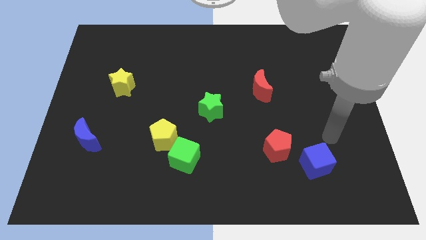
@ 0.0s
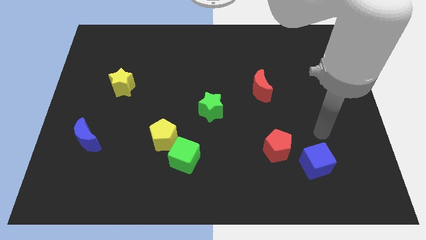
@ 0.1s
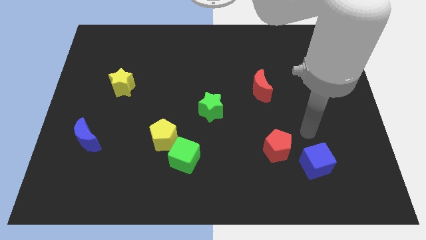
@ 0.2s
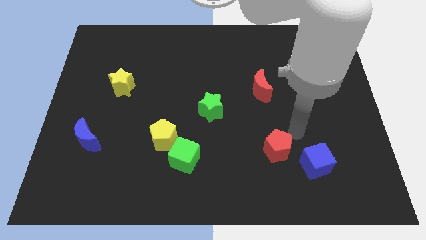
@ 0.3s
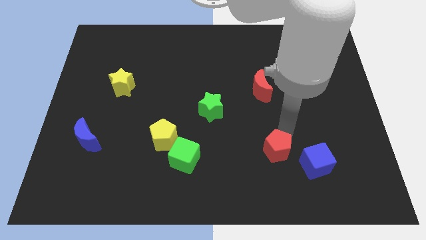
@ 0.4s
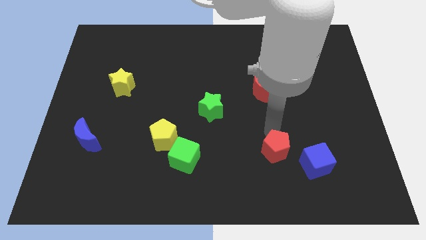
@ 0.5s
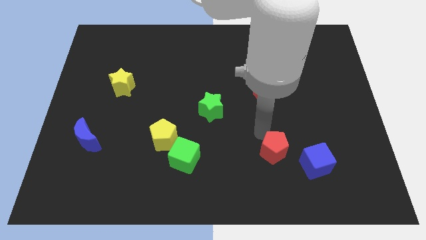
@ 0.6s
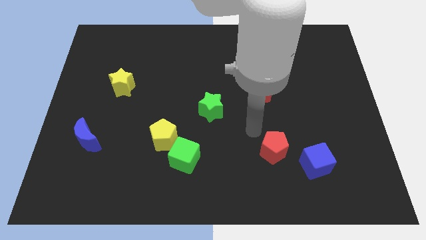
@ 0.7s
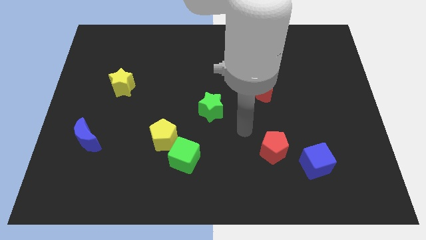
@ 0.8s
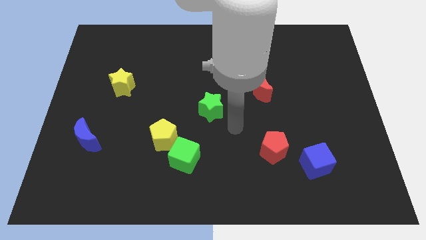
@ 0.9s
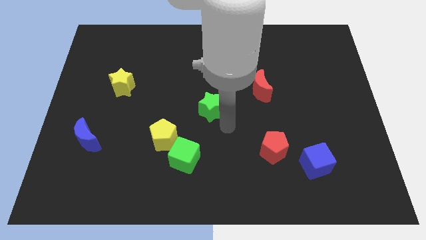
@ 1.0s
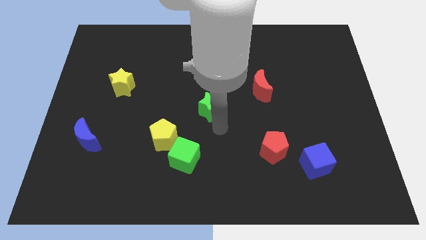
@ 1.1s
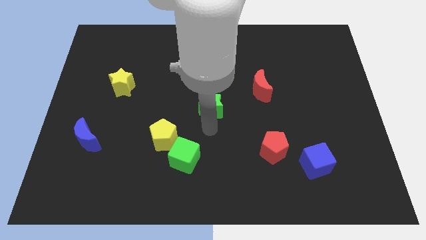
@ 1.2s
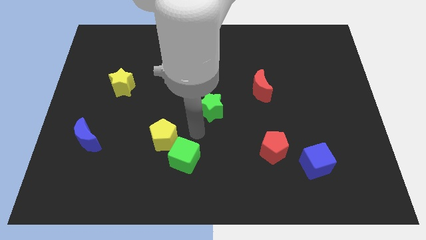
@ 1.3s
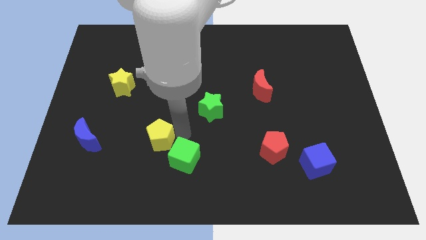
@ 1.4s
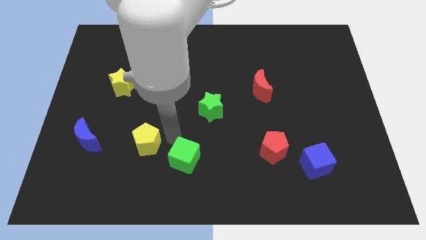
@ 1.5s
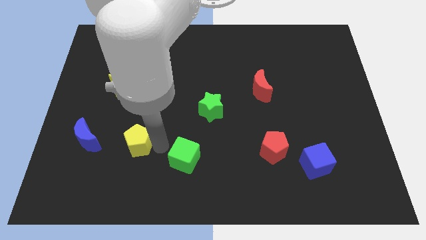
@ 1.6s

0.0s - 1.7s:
move the green cube away from the yellow pentagon

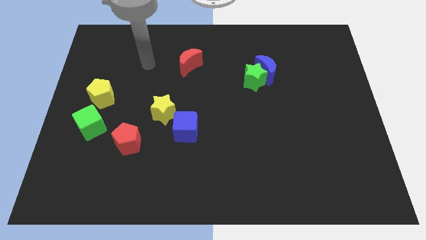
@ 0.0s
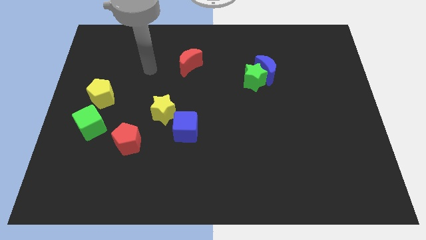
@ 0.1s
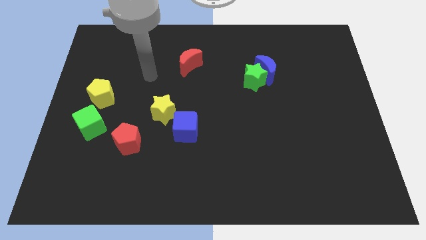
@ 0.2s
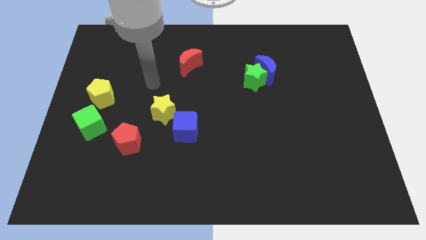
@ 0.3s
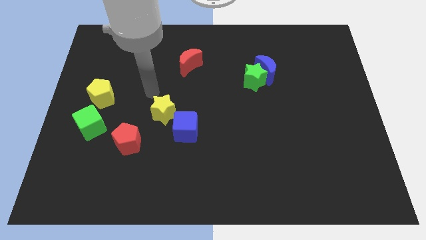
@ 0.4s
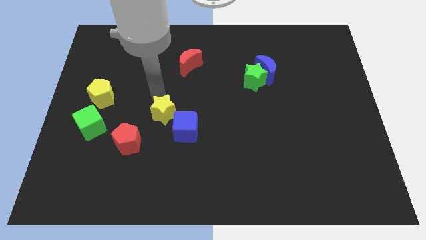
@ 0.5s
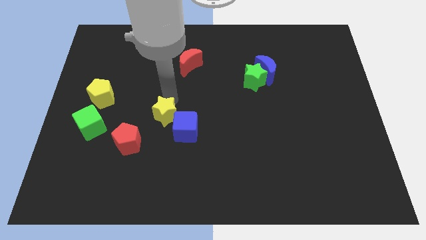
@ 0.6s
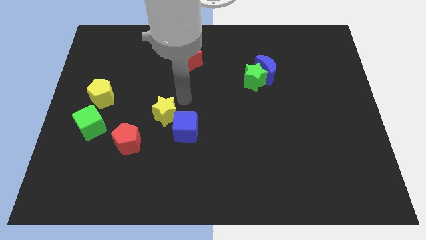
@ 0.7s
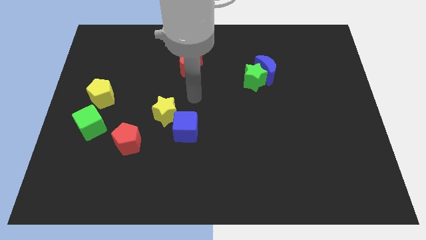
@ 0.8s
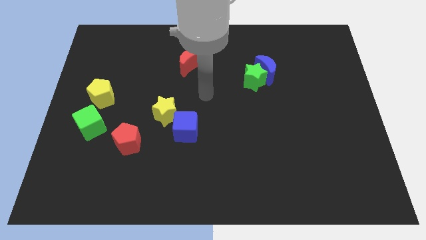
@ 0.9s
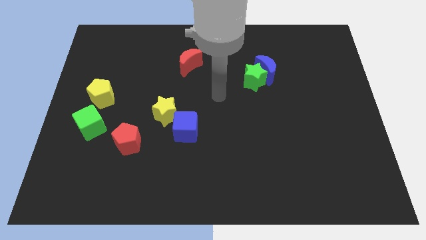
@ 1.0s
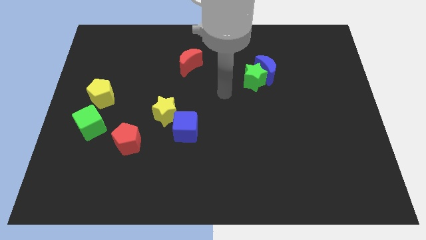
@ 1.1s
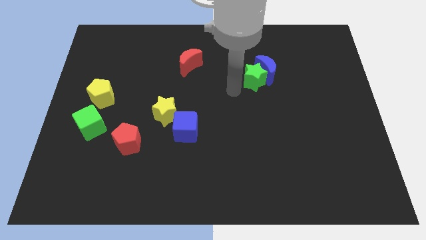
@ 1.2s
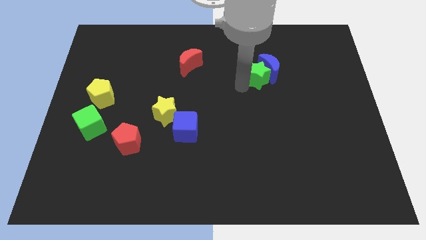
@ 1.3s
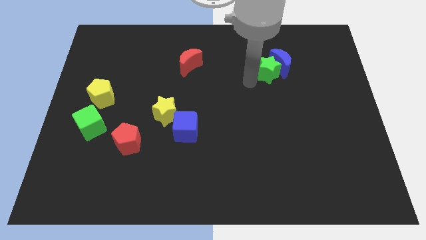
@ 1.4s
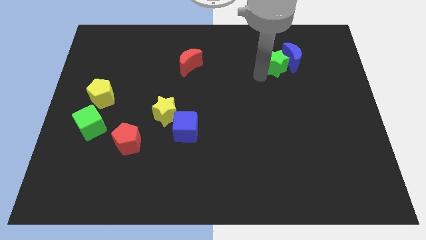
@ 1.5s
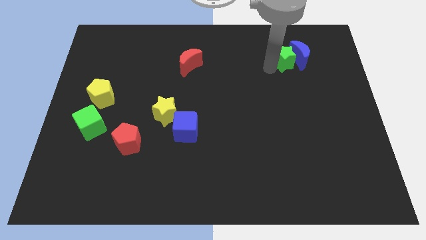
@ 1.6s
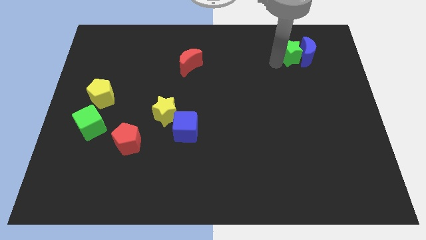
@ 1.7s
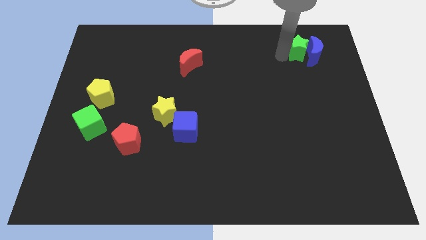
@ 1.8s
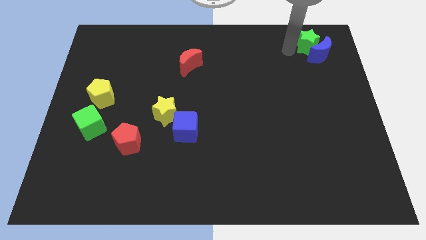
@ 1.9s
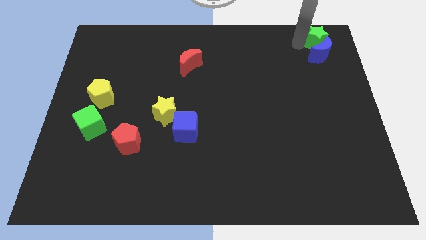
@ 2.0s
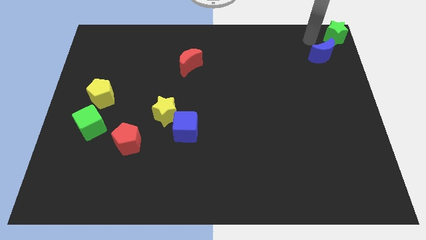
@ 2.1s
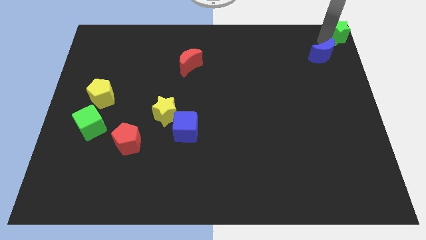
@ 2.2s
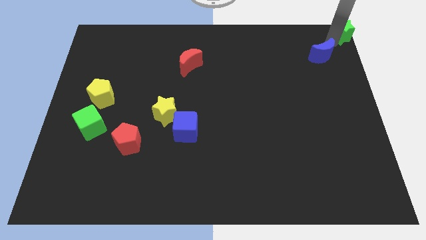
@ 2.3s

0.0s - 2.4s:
pull the blue moon apart from the green star

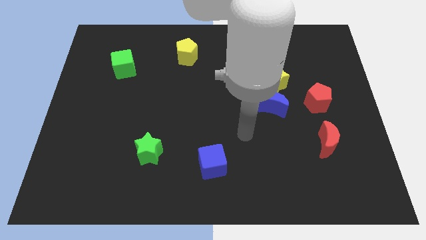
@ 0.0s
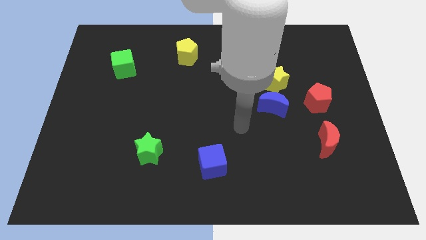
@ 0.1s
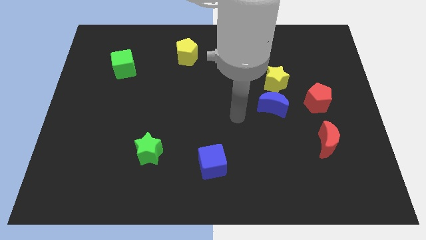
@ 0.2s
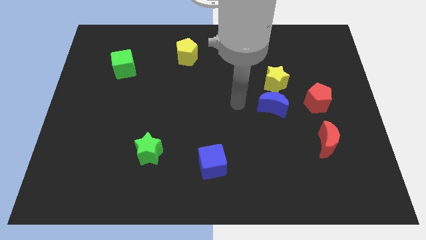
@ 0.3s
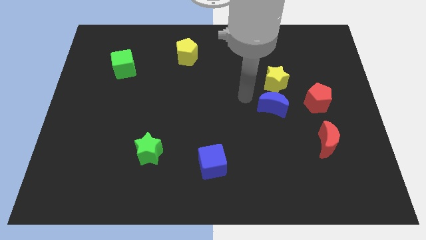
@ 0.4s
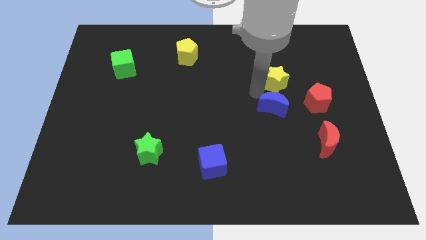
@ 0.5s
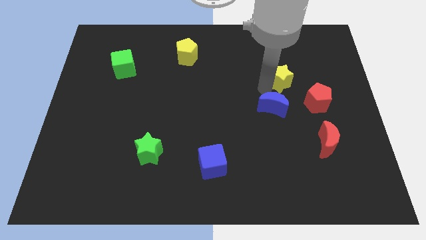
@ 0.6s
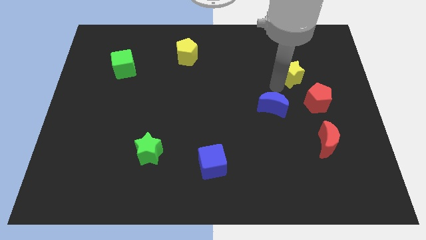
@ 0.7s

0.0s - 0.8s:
move the blue moon away from the yellow star

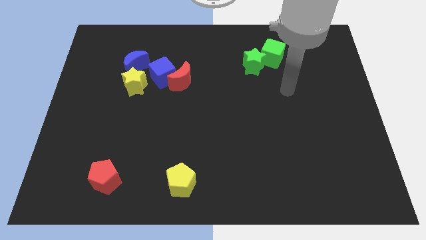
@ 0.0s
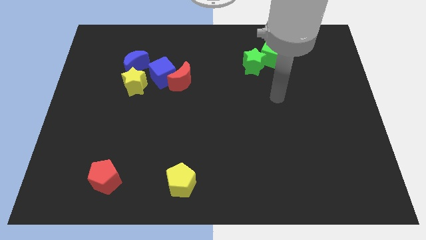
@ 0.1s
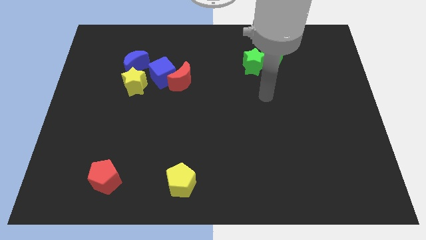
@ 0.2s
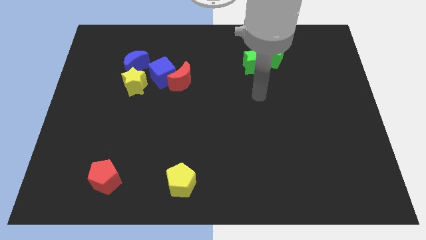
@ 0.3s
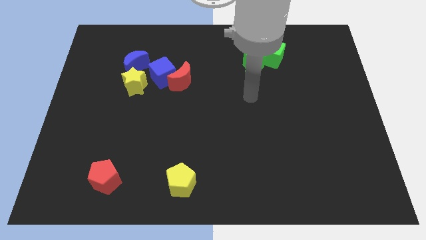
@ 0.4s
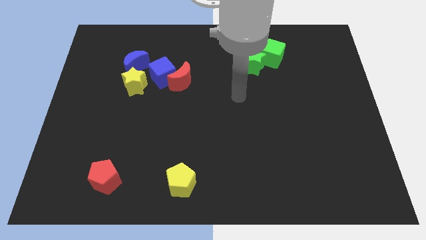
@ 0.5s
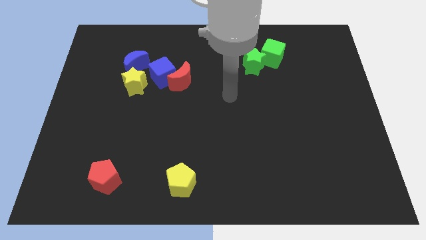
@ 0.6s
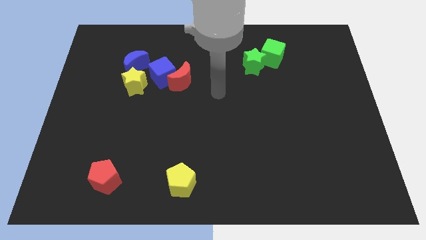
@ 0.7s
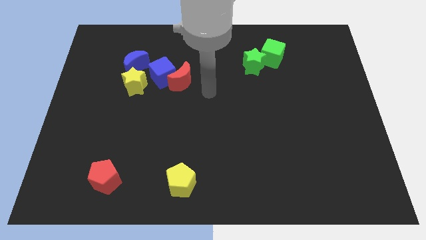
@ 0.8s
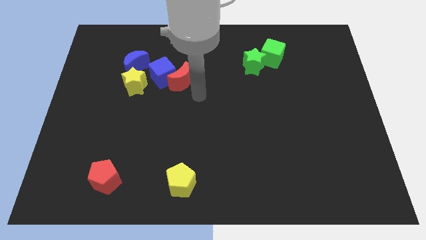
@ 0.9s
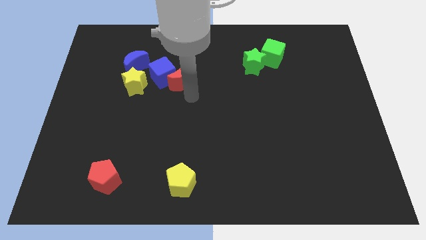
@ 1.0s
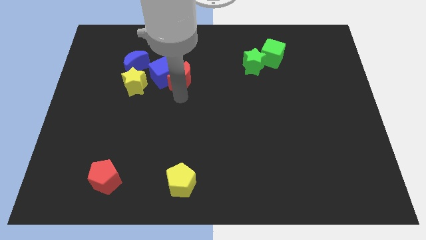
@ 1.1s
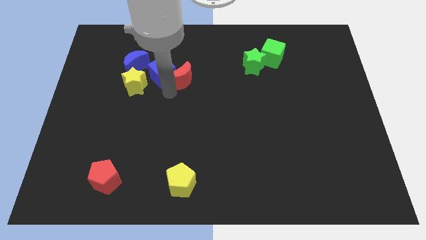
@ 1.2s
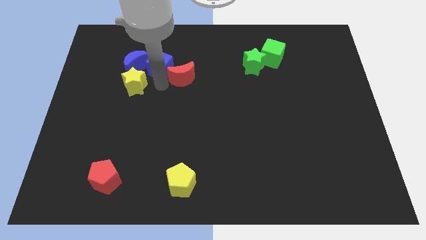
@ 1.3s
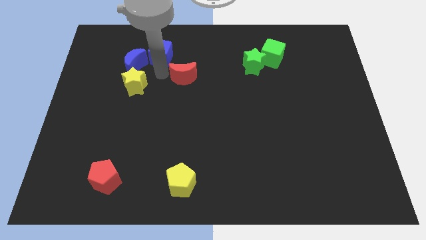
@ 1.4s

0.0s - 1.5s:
pull the red moon apart from the blue cube

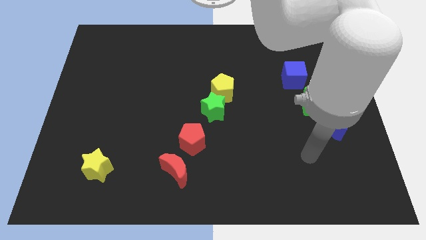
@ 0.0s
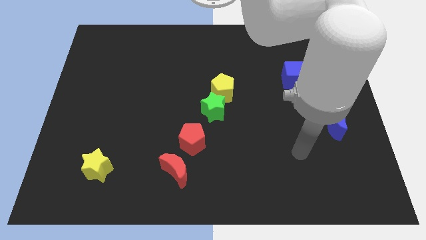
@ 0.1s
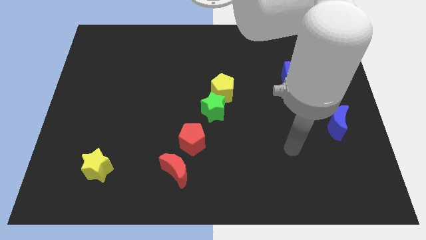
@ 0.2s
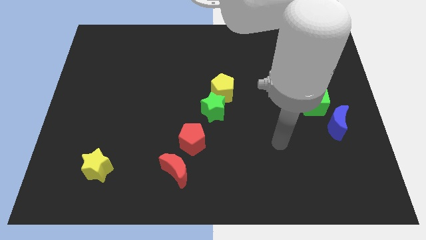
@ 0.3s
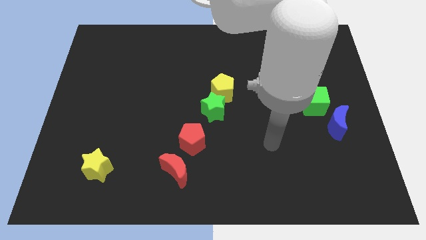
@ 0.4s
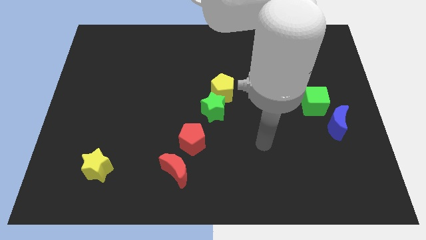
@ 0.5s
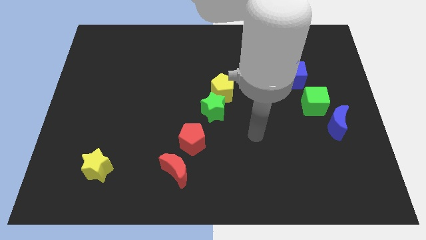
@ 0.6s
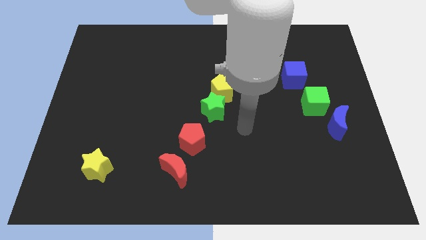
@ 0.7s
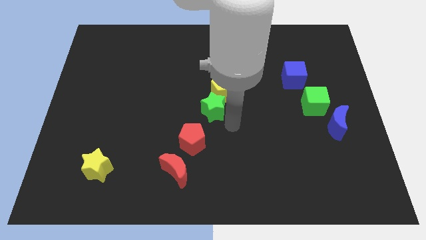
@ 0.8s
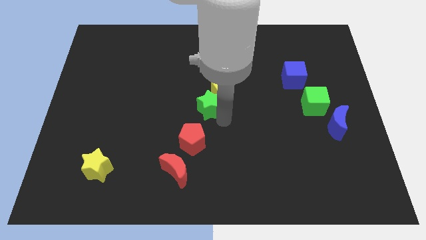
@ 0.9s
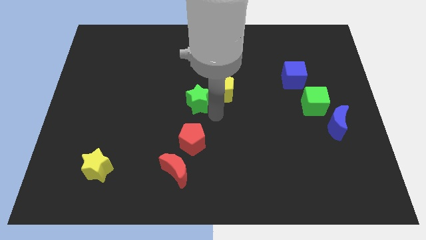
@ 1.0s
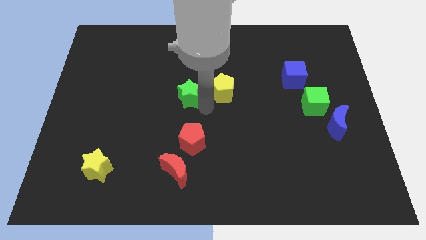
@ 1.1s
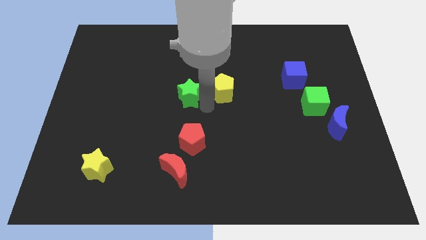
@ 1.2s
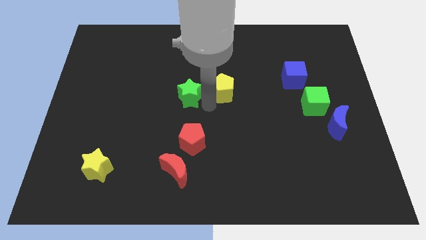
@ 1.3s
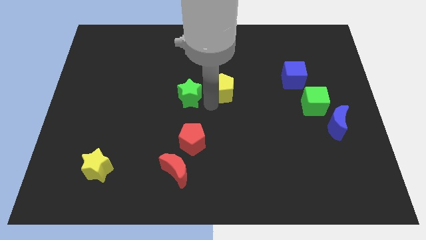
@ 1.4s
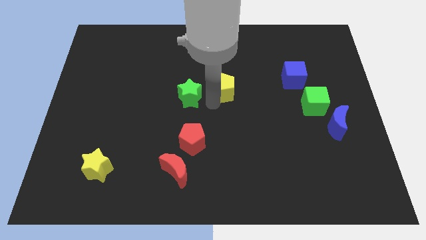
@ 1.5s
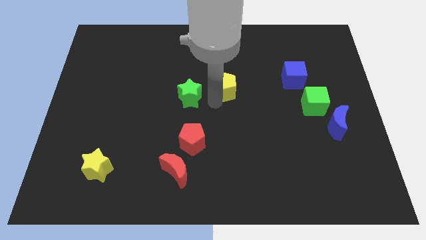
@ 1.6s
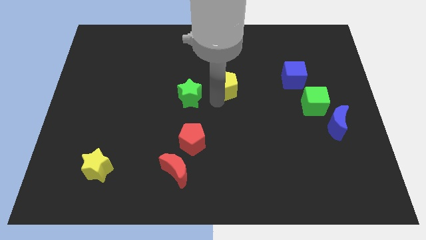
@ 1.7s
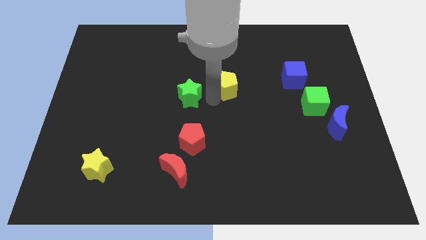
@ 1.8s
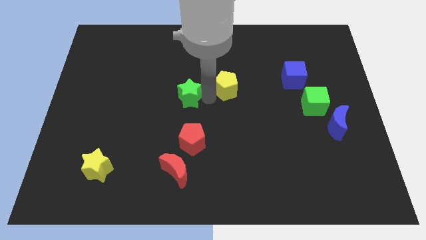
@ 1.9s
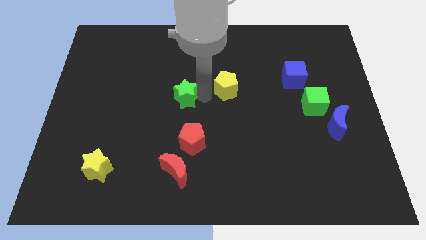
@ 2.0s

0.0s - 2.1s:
separate the yellow pentagon from the green star

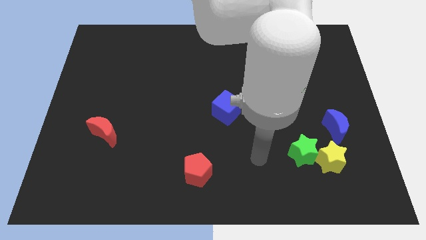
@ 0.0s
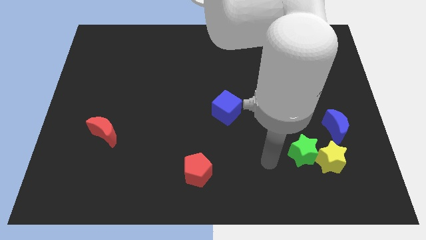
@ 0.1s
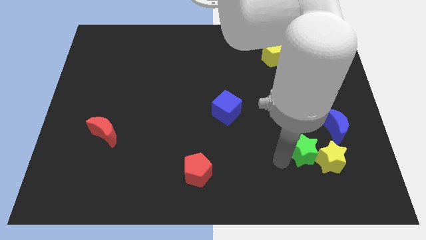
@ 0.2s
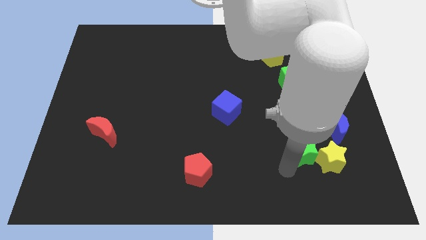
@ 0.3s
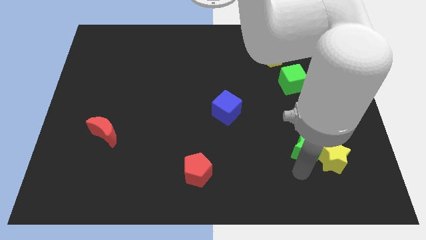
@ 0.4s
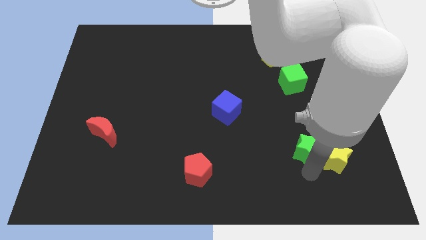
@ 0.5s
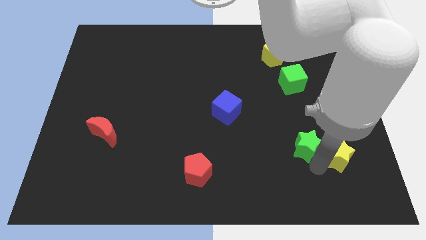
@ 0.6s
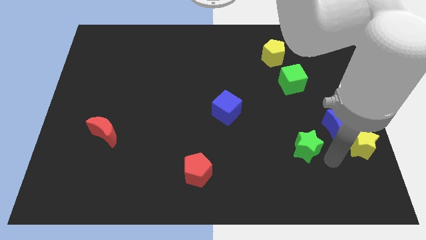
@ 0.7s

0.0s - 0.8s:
pull the green star apart from the yellow star
